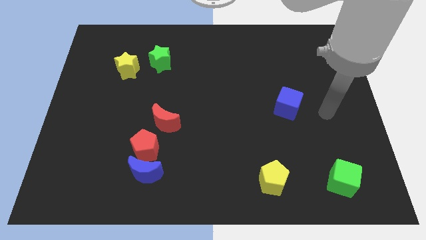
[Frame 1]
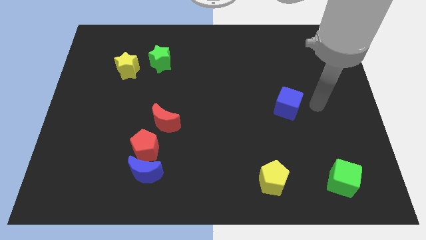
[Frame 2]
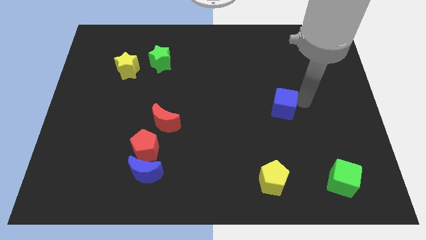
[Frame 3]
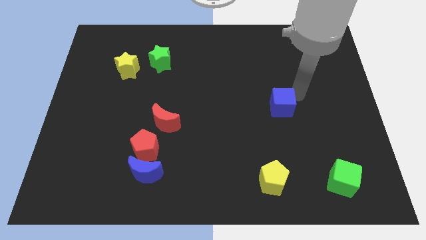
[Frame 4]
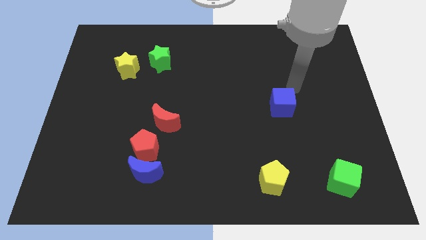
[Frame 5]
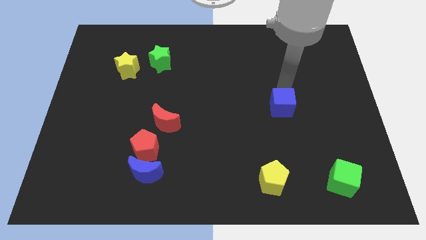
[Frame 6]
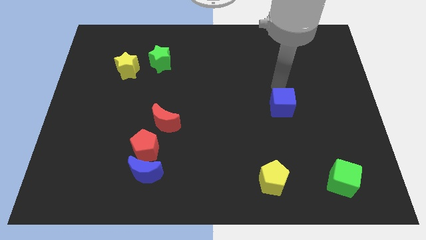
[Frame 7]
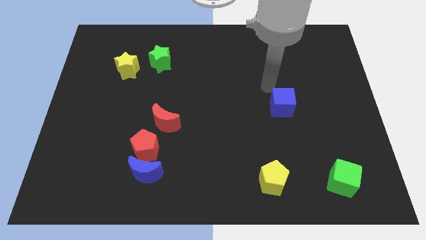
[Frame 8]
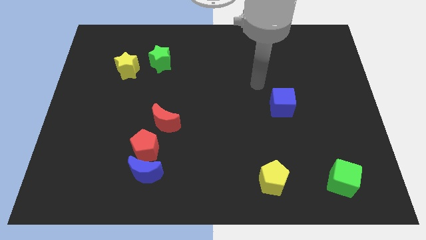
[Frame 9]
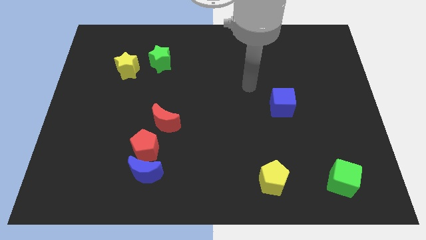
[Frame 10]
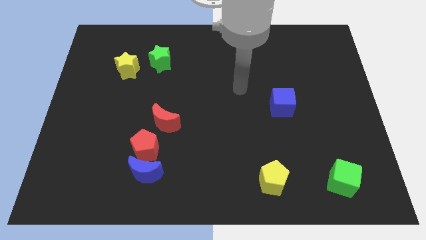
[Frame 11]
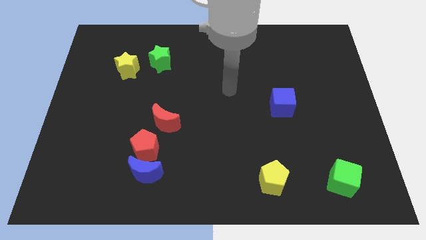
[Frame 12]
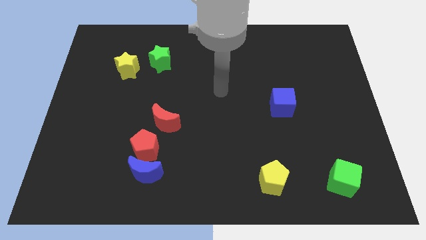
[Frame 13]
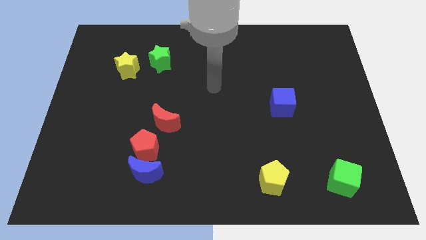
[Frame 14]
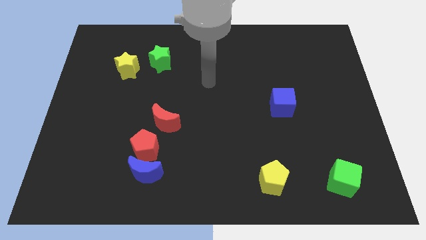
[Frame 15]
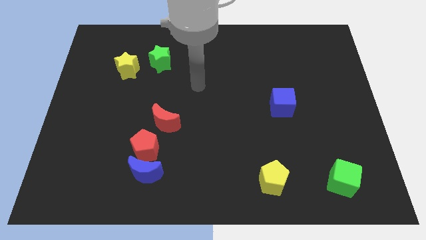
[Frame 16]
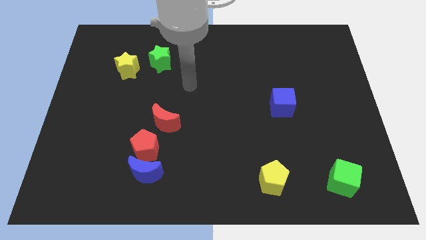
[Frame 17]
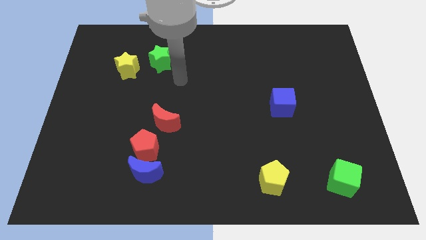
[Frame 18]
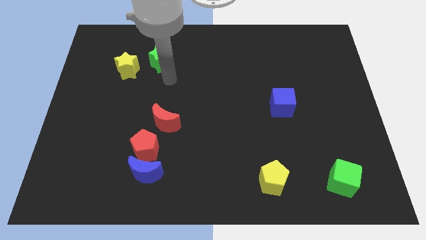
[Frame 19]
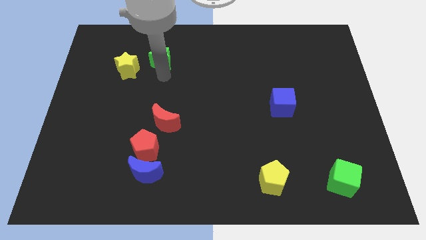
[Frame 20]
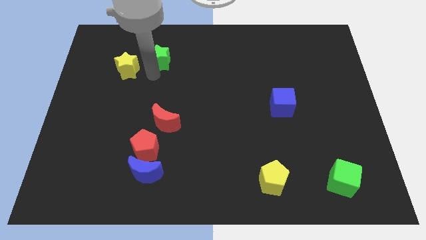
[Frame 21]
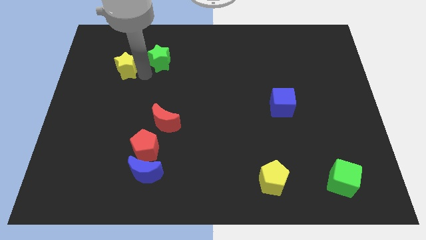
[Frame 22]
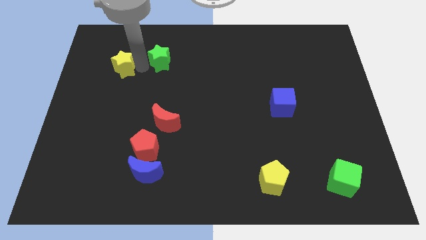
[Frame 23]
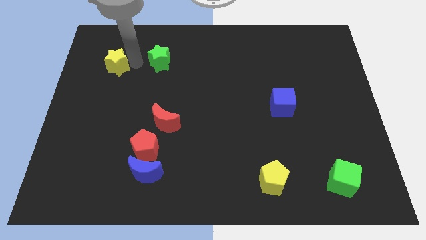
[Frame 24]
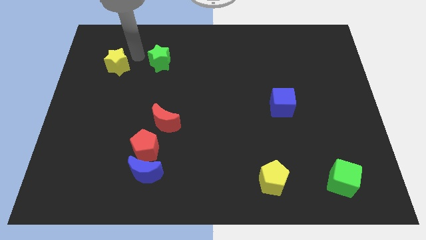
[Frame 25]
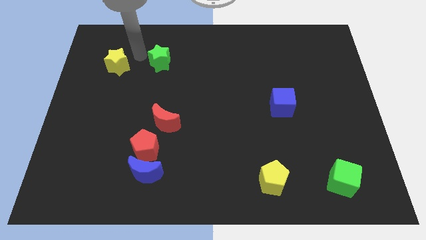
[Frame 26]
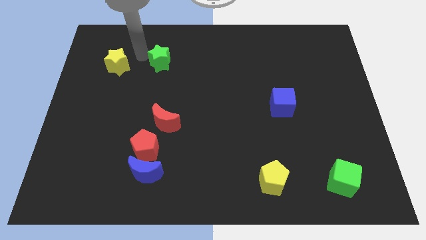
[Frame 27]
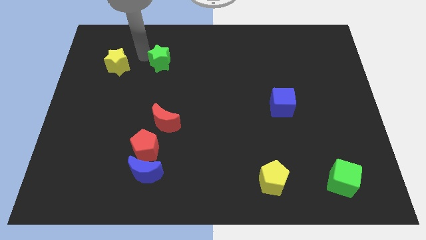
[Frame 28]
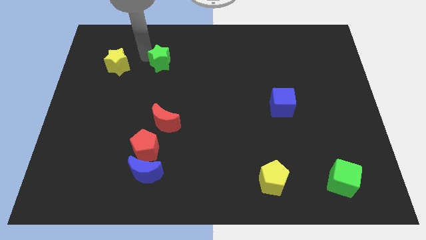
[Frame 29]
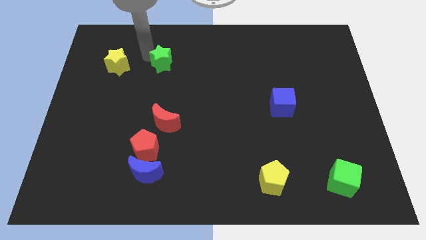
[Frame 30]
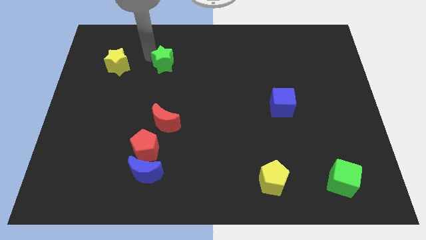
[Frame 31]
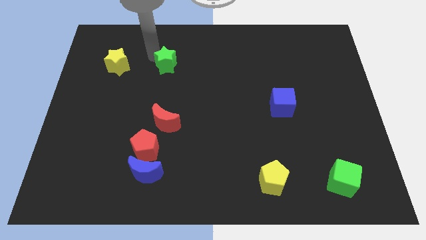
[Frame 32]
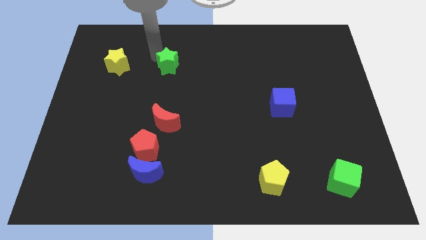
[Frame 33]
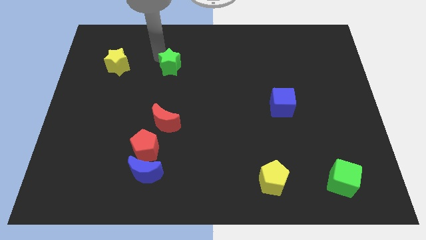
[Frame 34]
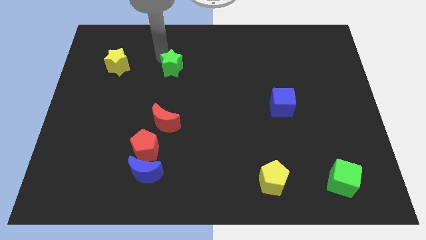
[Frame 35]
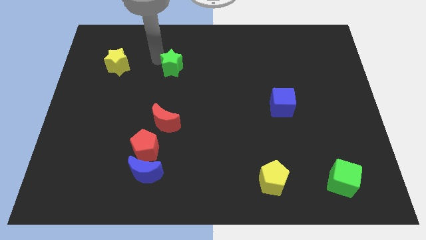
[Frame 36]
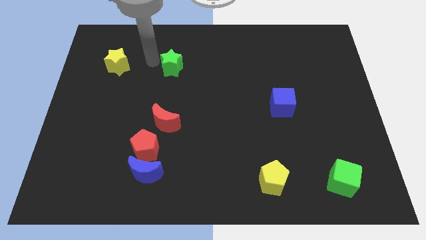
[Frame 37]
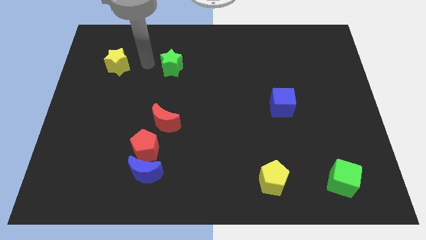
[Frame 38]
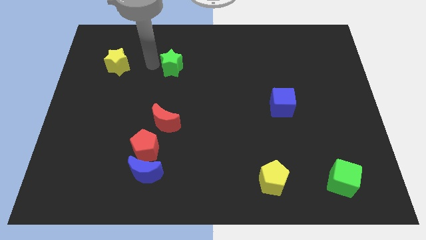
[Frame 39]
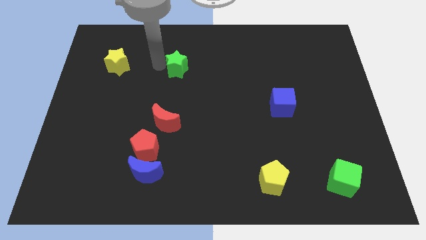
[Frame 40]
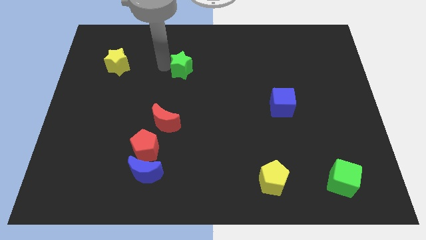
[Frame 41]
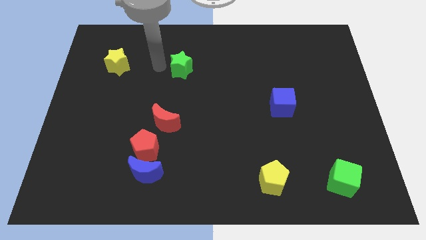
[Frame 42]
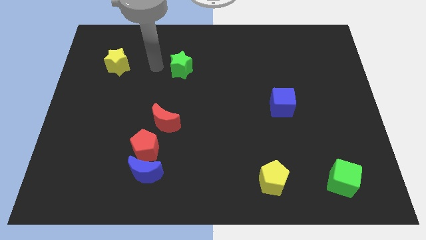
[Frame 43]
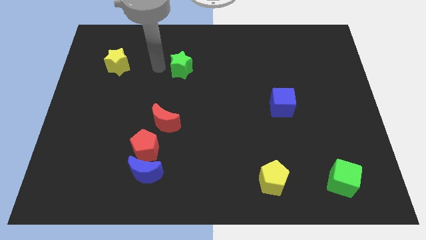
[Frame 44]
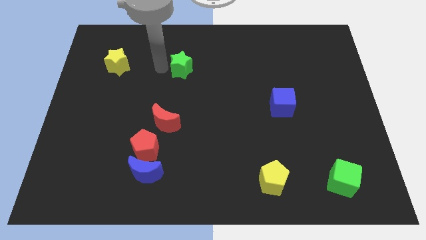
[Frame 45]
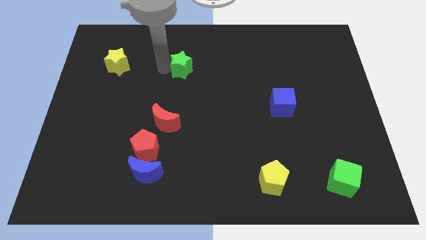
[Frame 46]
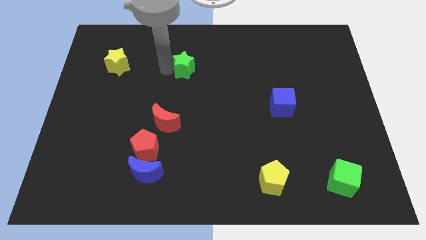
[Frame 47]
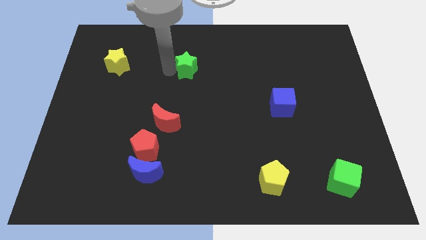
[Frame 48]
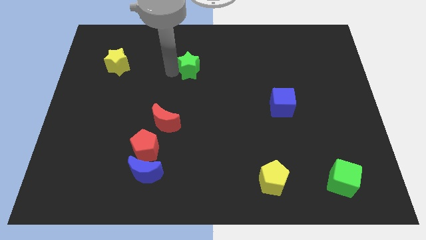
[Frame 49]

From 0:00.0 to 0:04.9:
push the green star a little bit right

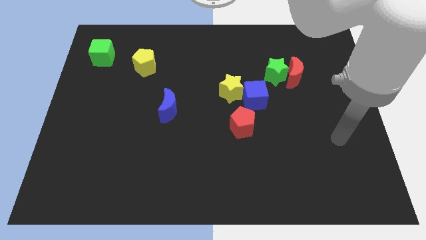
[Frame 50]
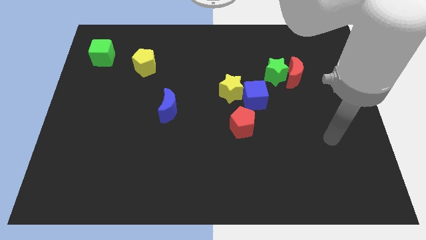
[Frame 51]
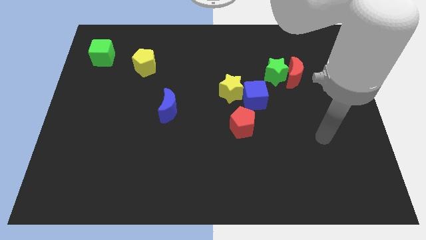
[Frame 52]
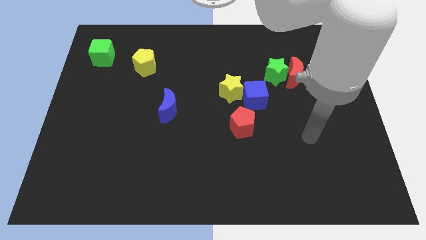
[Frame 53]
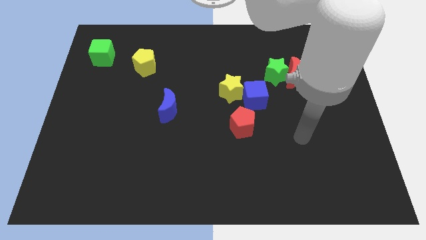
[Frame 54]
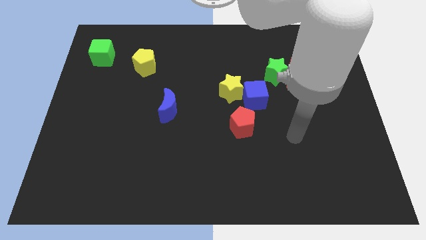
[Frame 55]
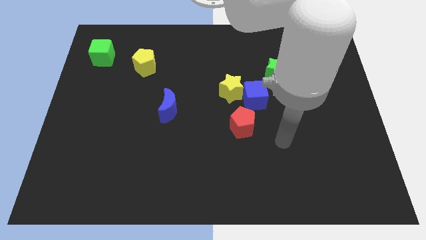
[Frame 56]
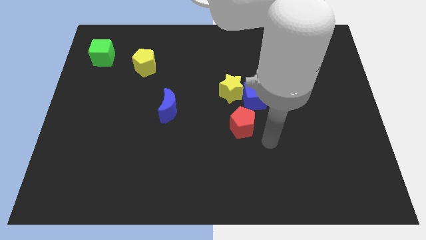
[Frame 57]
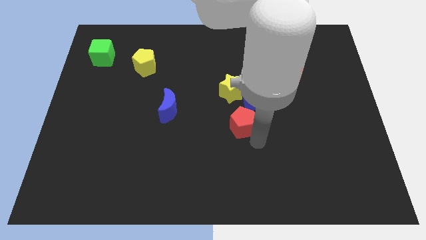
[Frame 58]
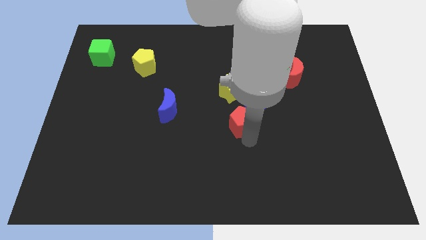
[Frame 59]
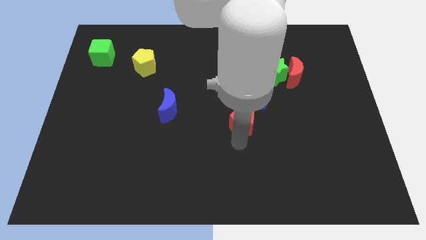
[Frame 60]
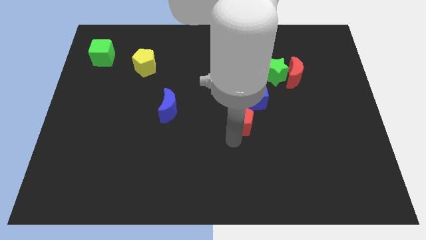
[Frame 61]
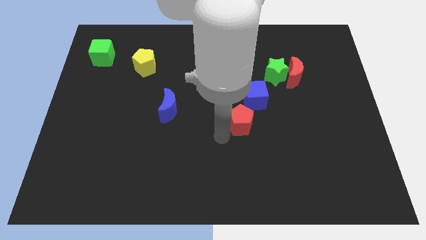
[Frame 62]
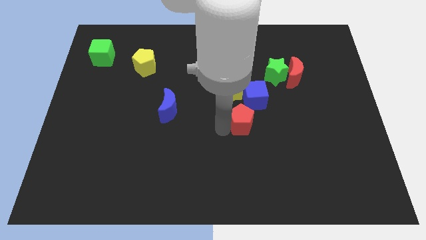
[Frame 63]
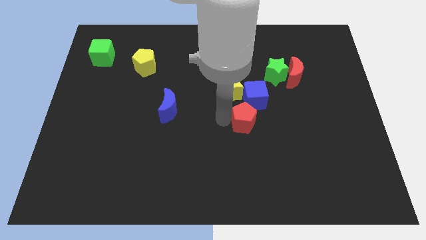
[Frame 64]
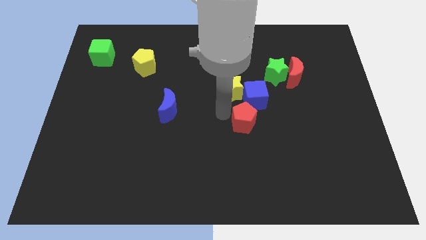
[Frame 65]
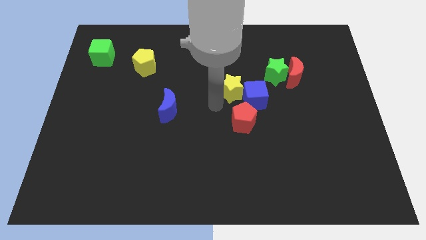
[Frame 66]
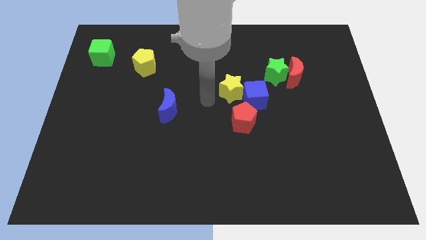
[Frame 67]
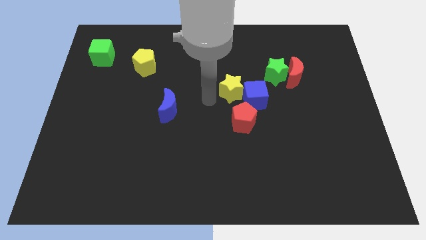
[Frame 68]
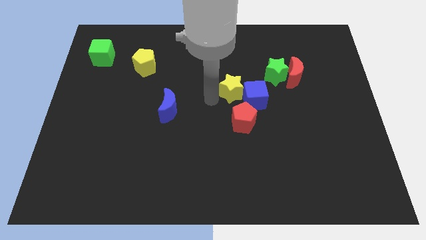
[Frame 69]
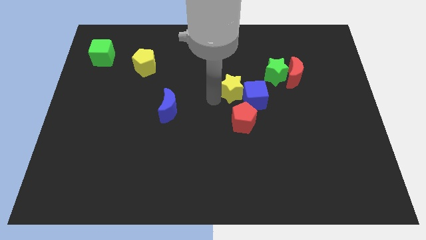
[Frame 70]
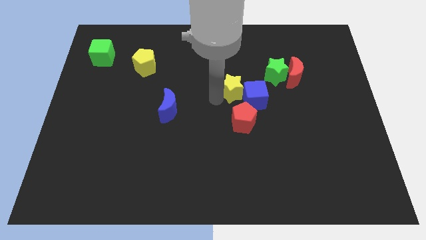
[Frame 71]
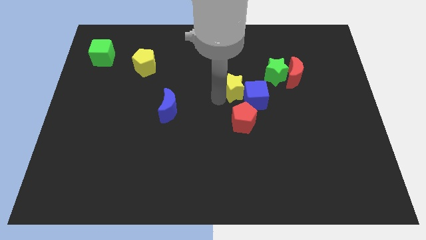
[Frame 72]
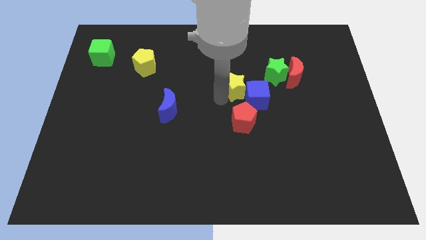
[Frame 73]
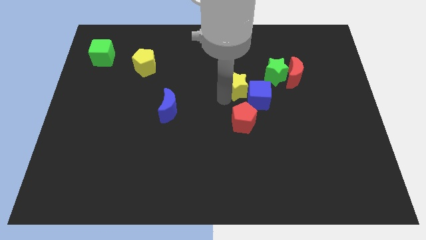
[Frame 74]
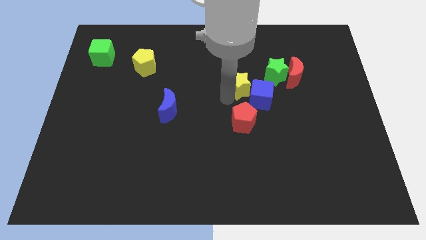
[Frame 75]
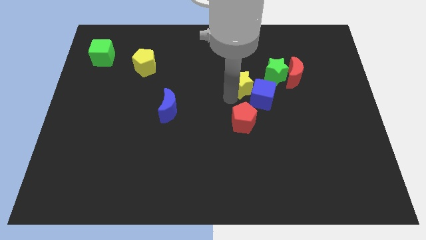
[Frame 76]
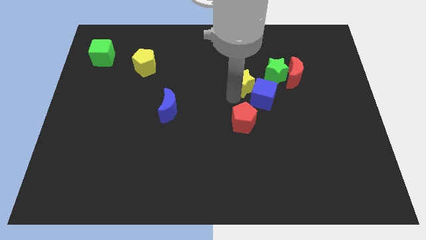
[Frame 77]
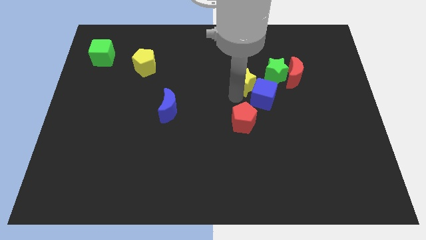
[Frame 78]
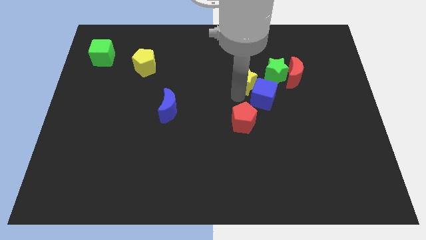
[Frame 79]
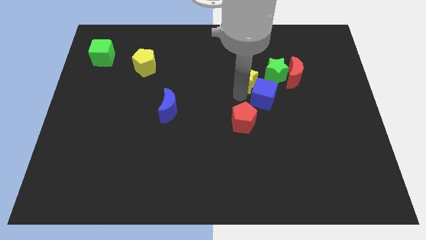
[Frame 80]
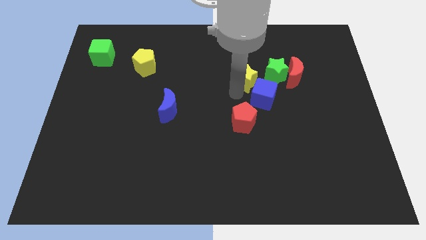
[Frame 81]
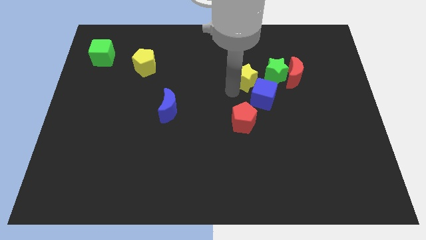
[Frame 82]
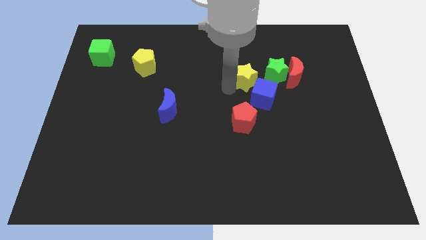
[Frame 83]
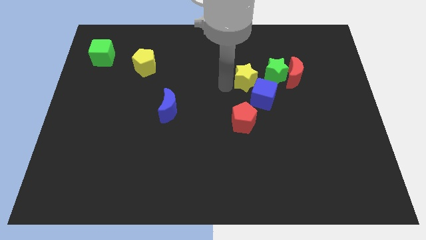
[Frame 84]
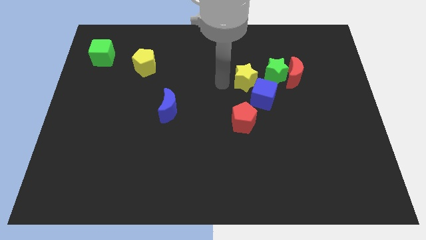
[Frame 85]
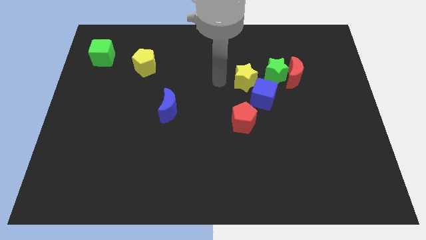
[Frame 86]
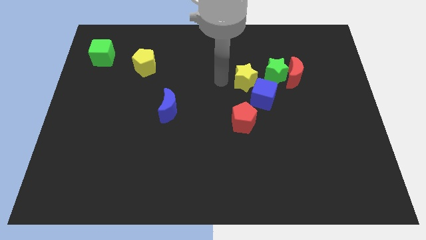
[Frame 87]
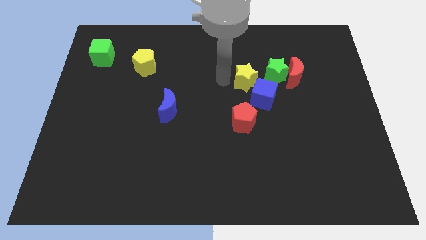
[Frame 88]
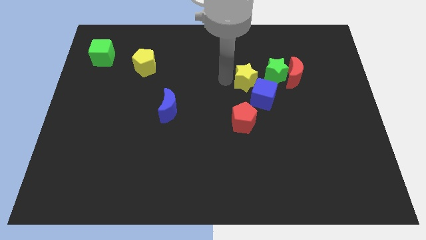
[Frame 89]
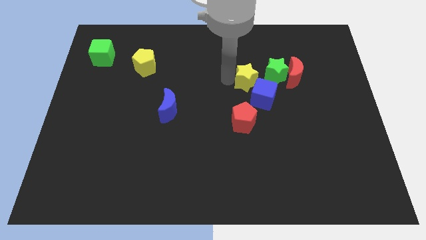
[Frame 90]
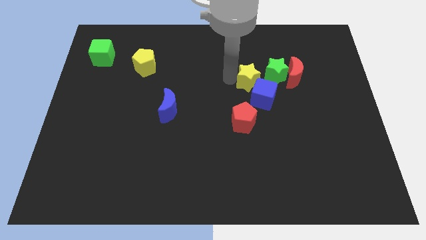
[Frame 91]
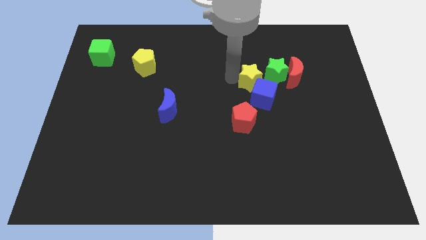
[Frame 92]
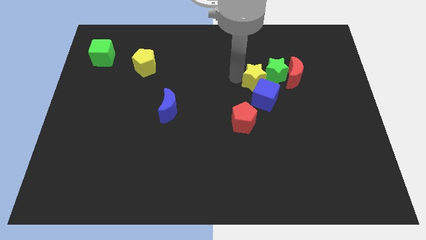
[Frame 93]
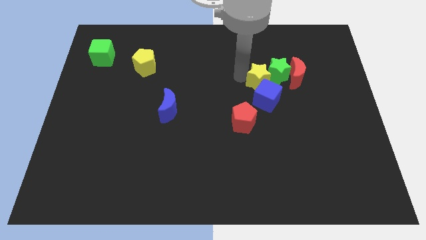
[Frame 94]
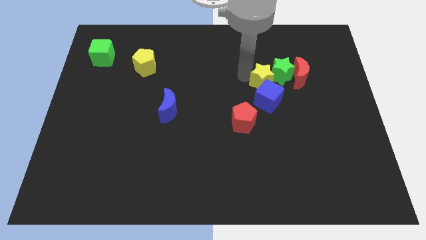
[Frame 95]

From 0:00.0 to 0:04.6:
move the yellow star a little bit to the right
